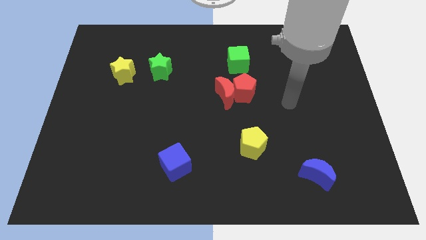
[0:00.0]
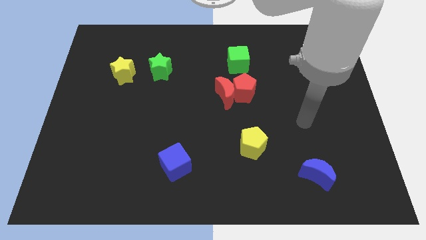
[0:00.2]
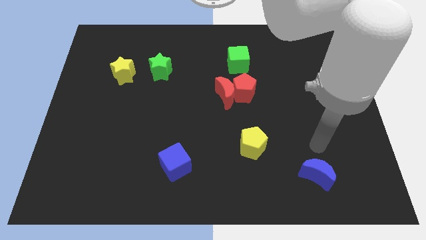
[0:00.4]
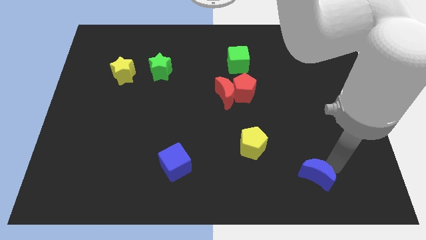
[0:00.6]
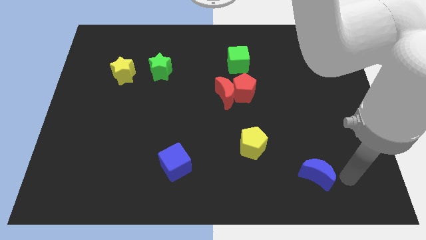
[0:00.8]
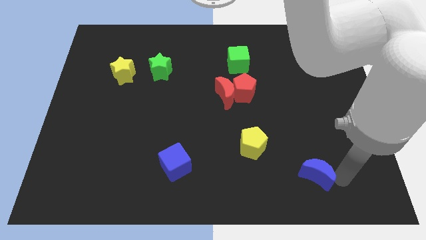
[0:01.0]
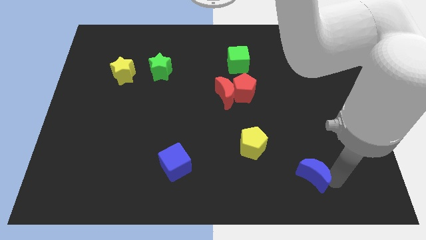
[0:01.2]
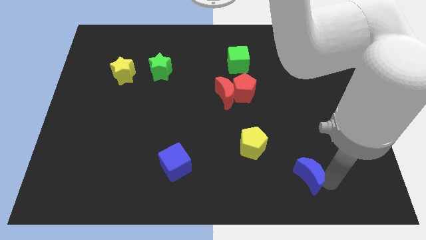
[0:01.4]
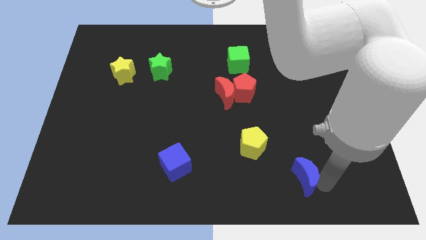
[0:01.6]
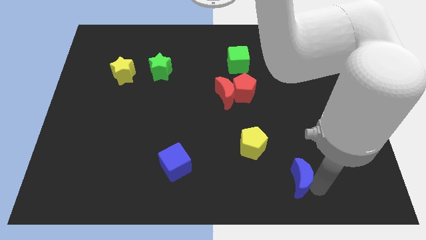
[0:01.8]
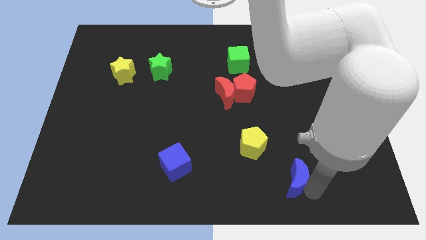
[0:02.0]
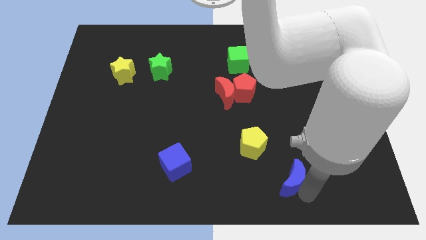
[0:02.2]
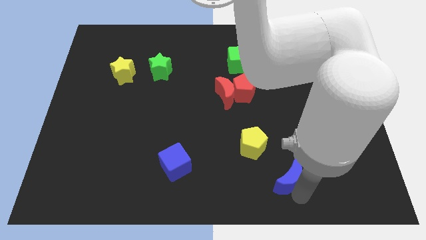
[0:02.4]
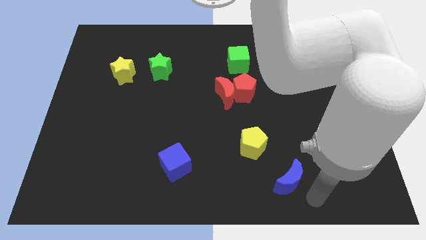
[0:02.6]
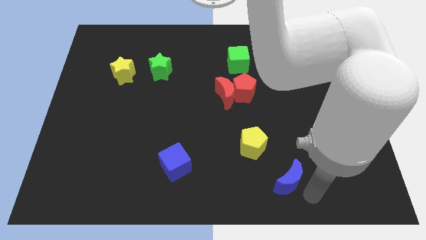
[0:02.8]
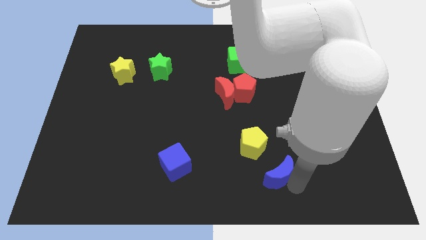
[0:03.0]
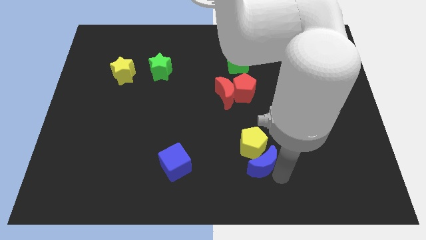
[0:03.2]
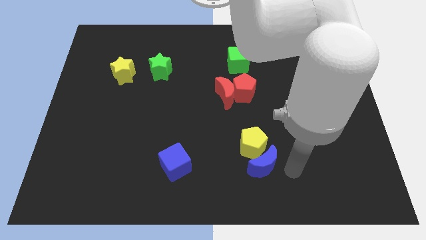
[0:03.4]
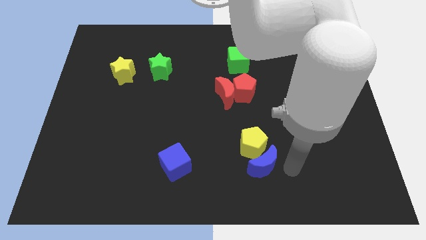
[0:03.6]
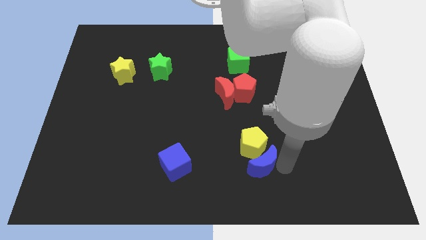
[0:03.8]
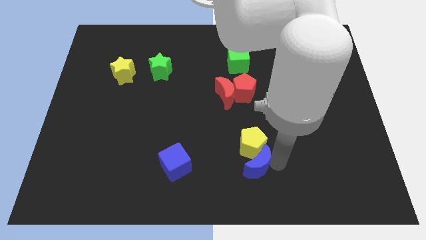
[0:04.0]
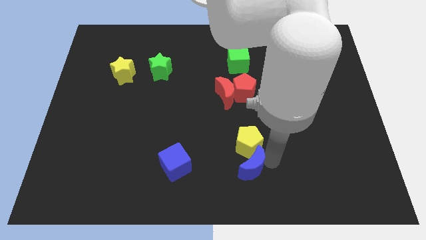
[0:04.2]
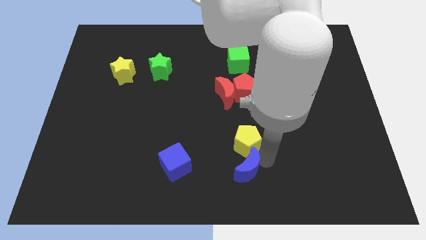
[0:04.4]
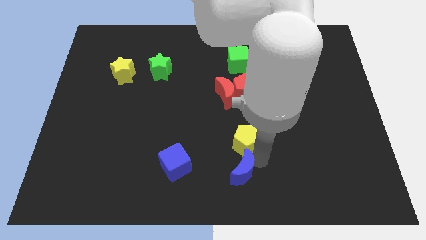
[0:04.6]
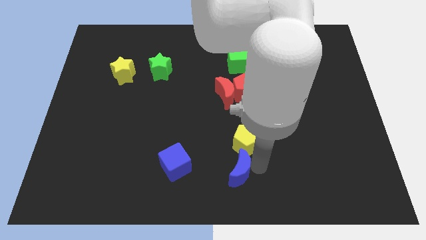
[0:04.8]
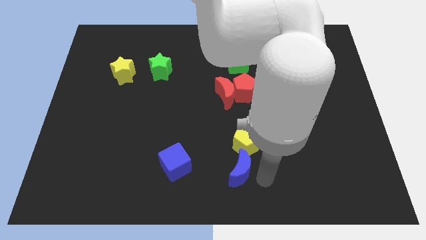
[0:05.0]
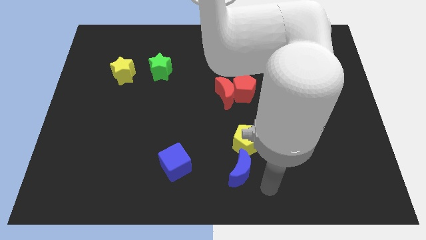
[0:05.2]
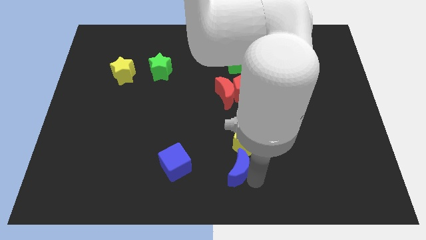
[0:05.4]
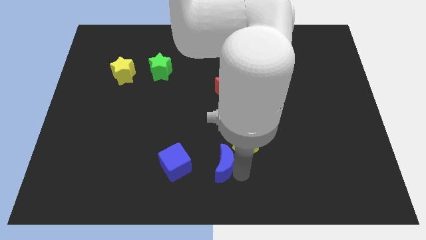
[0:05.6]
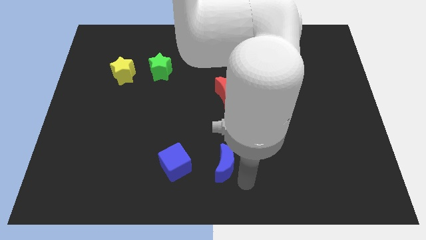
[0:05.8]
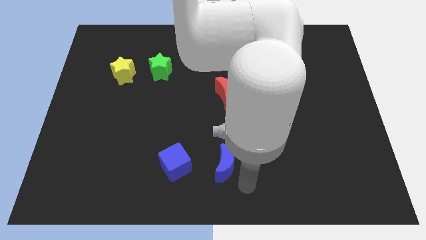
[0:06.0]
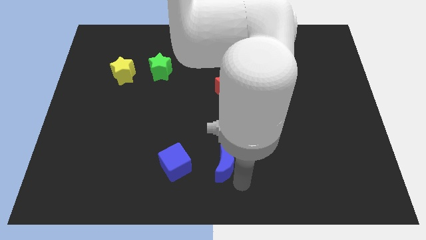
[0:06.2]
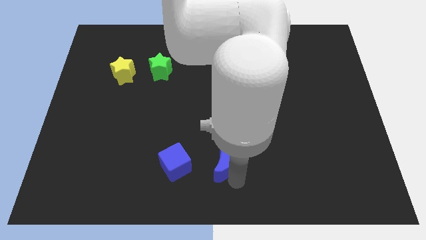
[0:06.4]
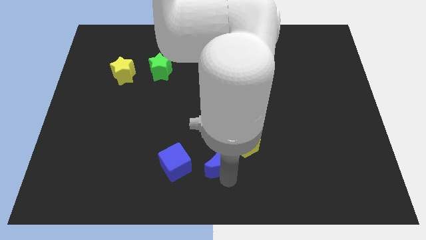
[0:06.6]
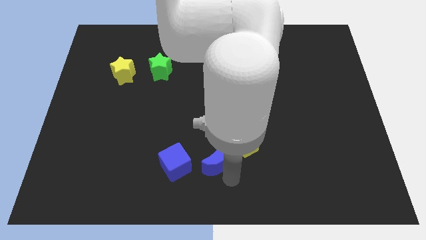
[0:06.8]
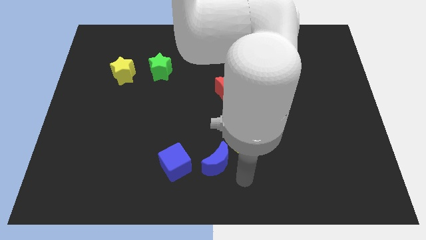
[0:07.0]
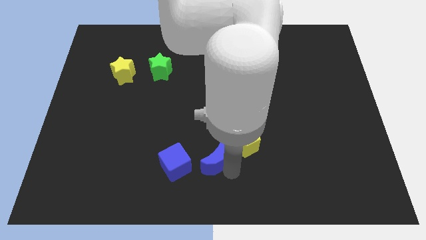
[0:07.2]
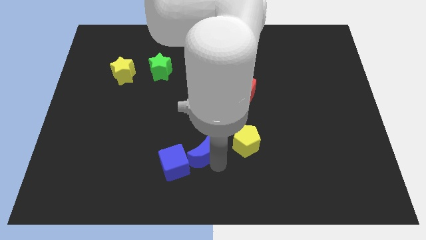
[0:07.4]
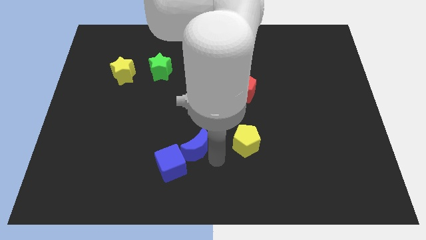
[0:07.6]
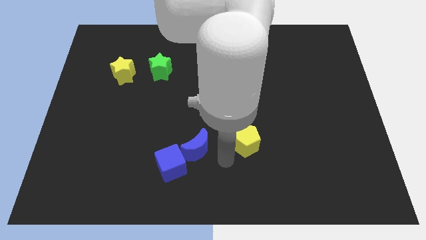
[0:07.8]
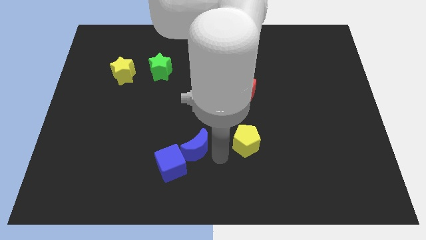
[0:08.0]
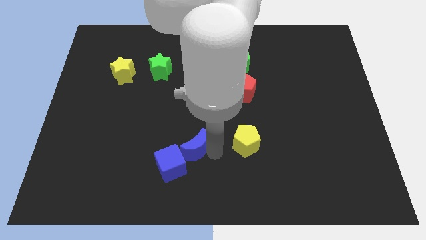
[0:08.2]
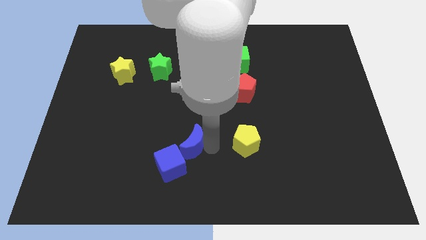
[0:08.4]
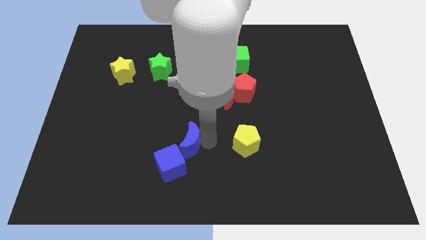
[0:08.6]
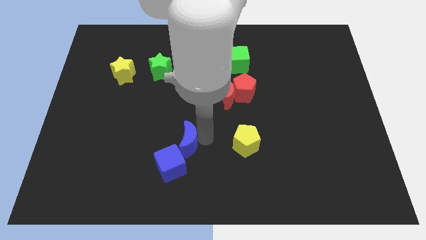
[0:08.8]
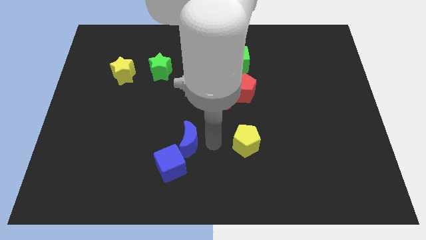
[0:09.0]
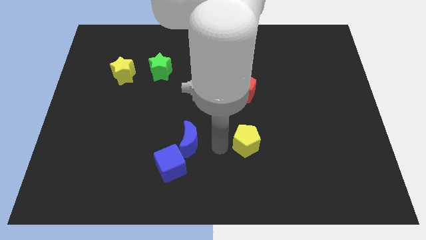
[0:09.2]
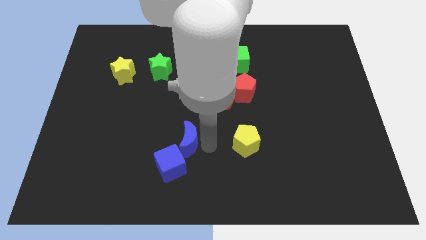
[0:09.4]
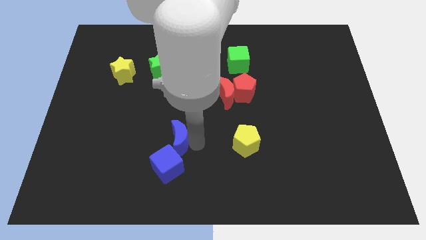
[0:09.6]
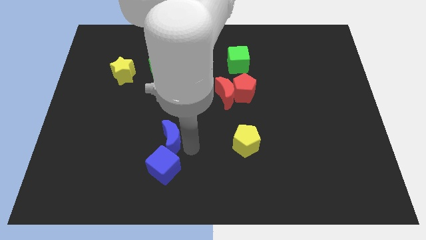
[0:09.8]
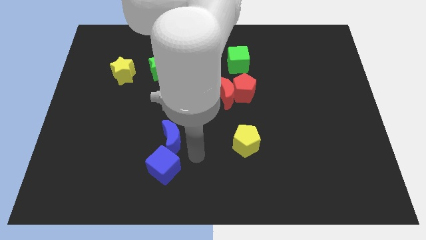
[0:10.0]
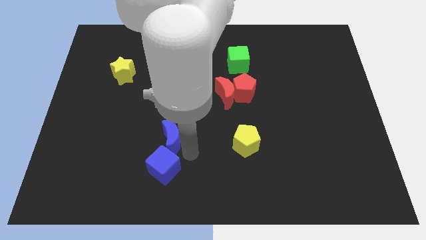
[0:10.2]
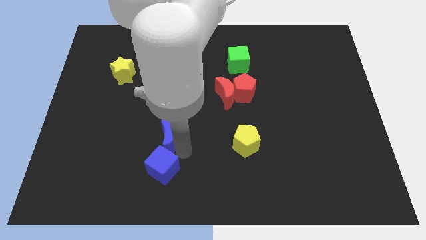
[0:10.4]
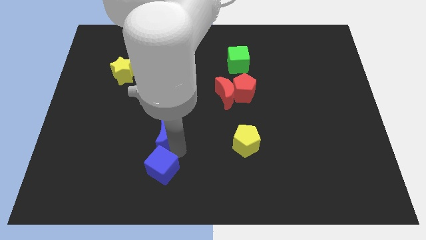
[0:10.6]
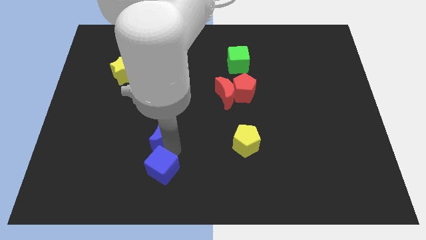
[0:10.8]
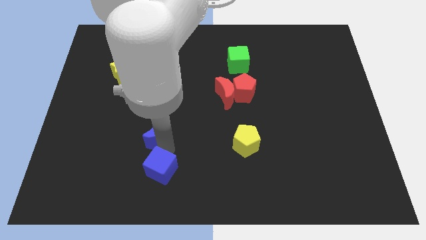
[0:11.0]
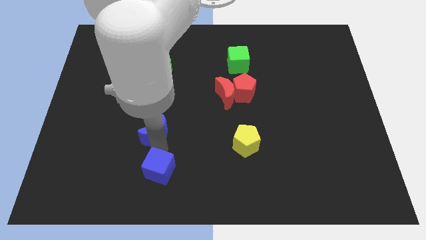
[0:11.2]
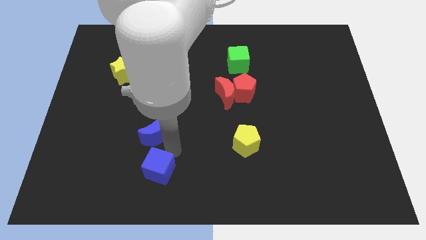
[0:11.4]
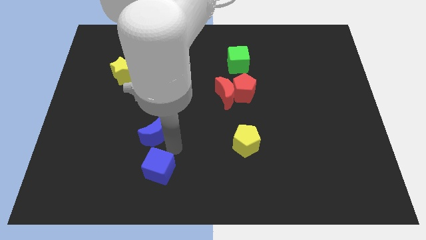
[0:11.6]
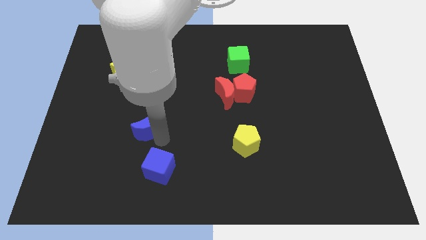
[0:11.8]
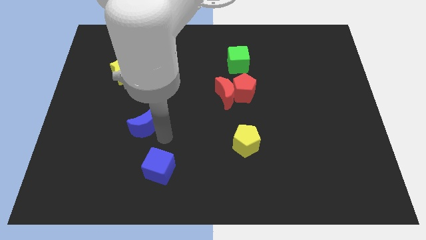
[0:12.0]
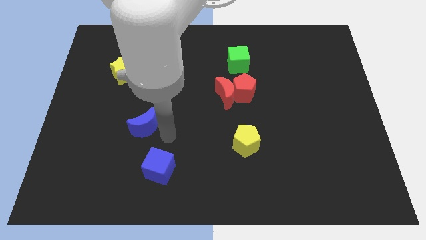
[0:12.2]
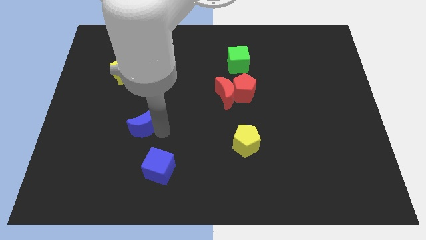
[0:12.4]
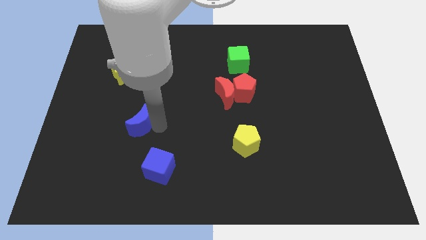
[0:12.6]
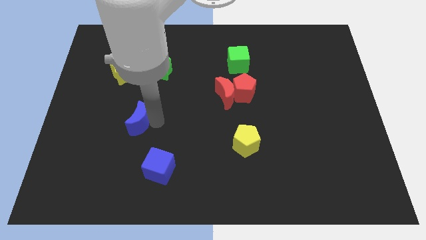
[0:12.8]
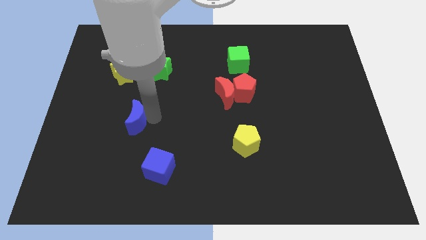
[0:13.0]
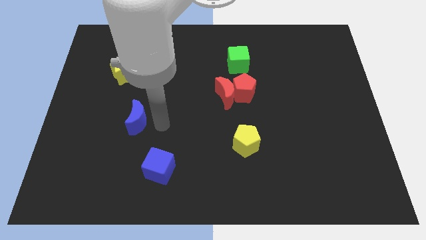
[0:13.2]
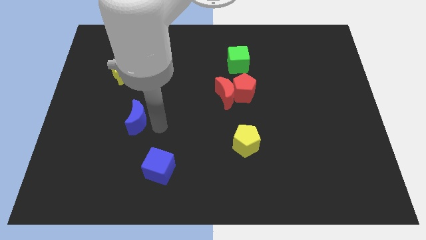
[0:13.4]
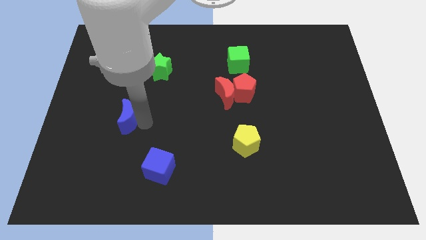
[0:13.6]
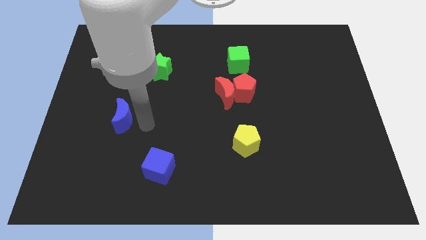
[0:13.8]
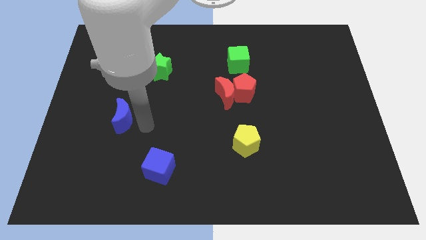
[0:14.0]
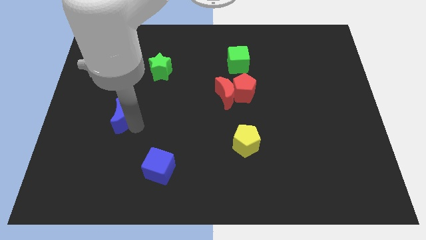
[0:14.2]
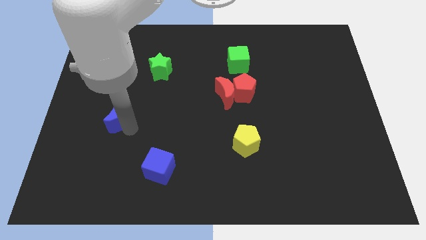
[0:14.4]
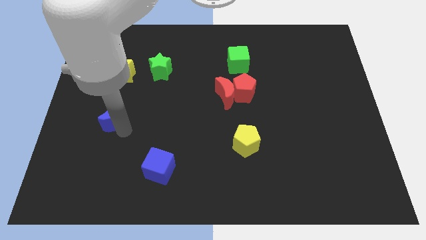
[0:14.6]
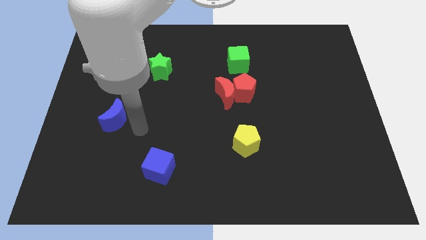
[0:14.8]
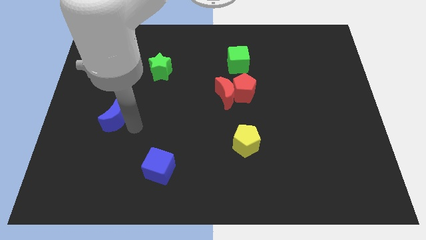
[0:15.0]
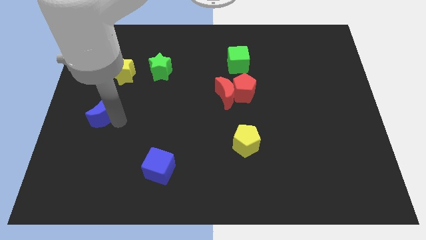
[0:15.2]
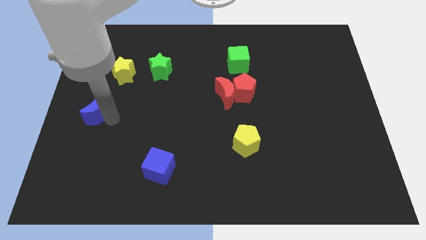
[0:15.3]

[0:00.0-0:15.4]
slide the blue moon to the left side
